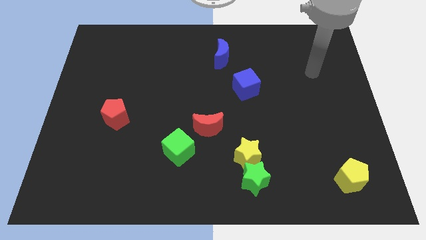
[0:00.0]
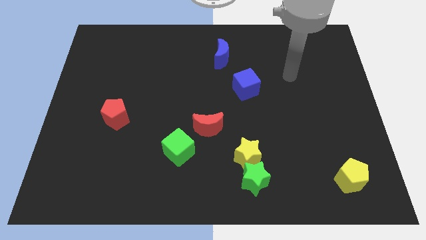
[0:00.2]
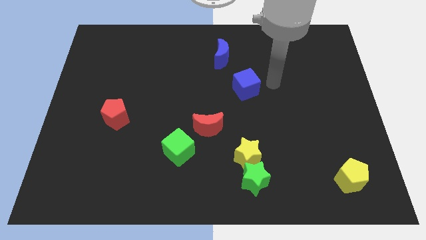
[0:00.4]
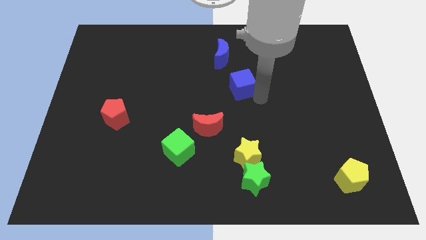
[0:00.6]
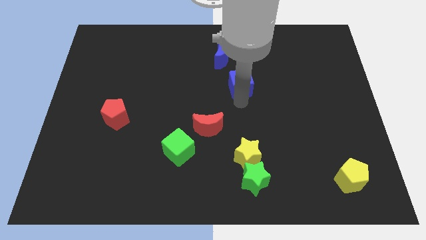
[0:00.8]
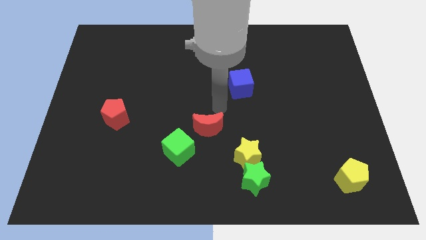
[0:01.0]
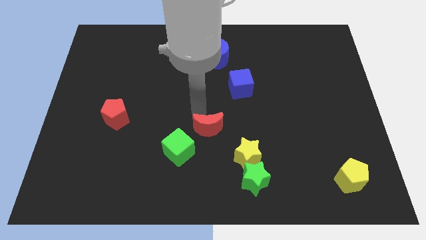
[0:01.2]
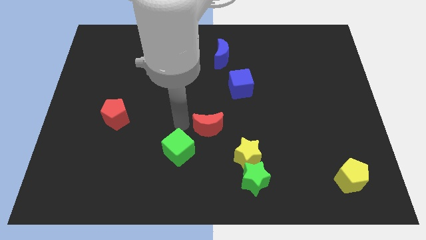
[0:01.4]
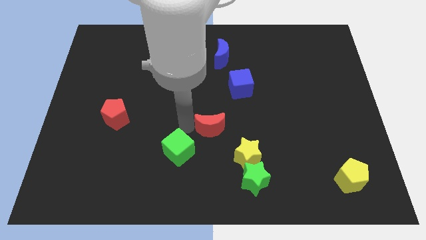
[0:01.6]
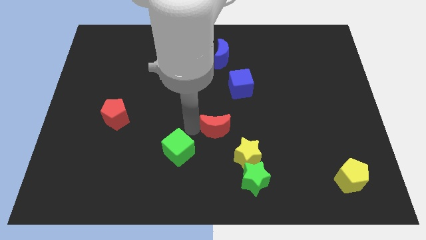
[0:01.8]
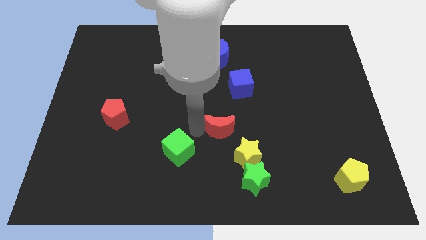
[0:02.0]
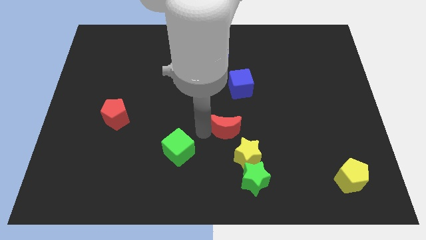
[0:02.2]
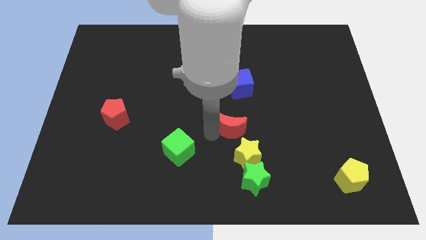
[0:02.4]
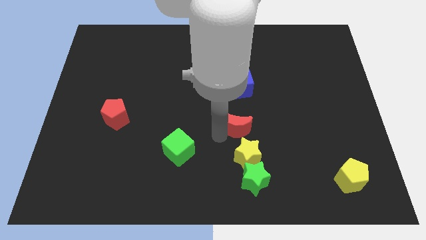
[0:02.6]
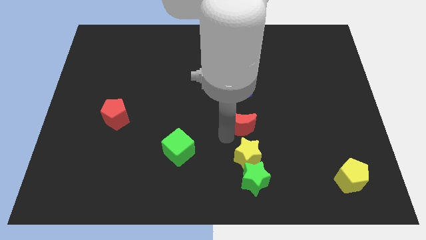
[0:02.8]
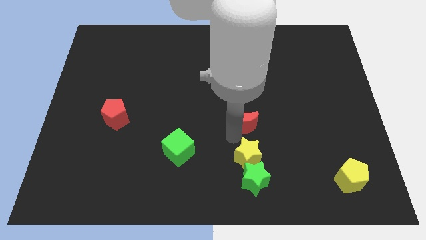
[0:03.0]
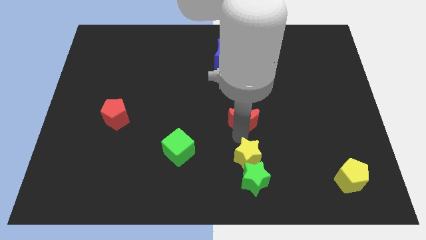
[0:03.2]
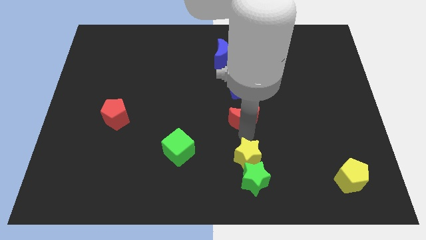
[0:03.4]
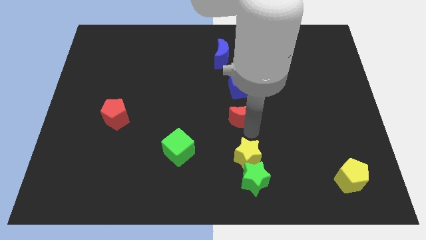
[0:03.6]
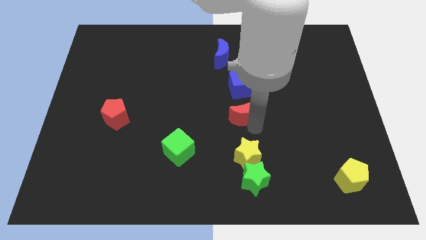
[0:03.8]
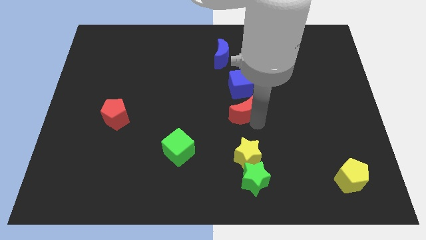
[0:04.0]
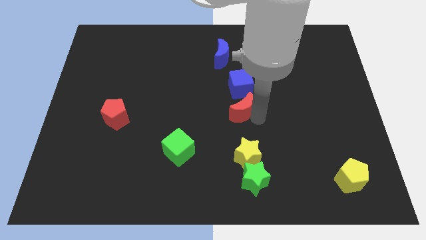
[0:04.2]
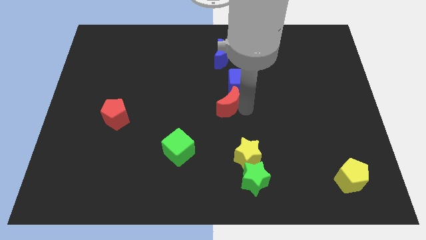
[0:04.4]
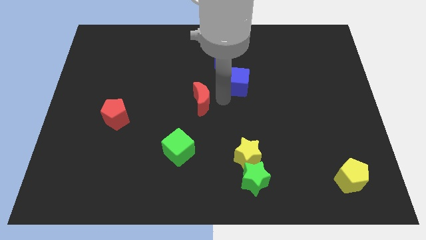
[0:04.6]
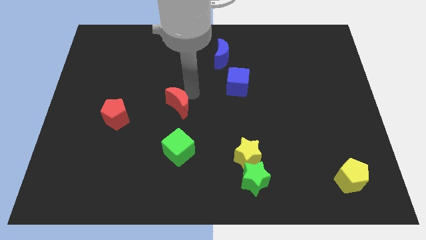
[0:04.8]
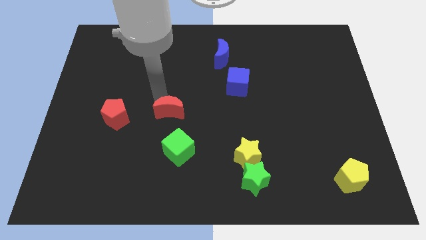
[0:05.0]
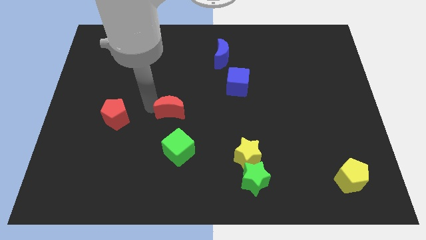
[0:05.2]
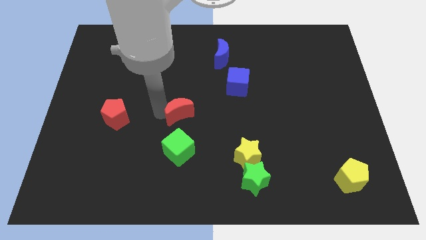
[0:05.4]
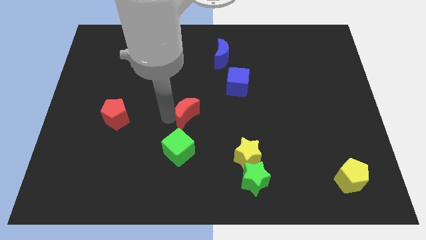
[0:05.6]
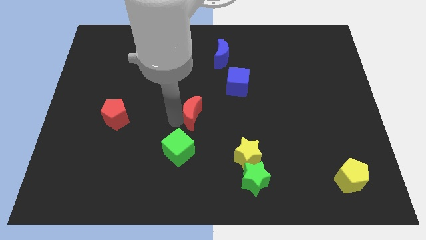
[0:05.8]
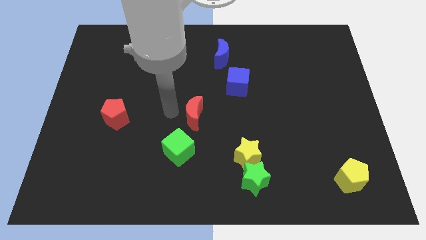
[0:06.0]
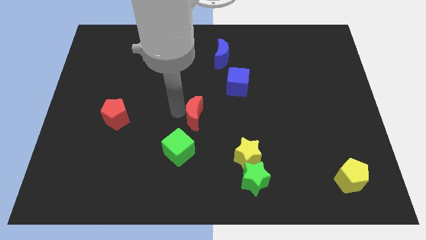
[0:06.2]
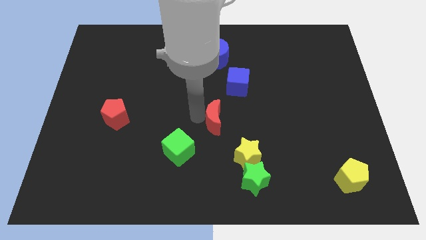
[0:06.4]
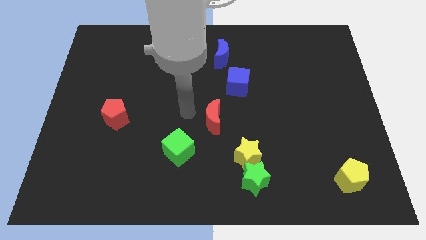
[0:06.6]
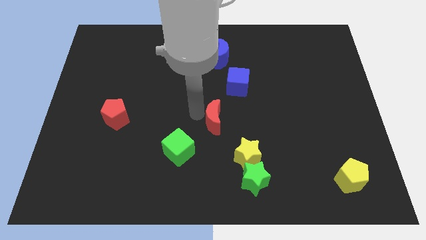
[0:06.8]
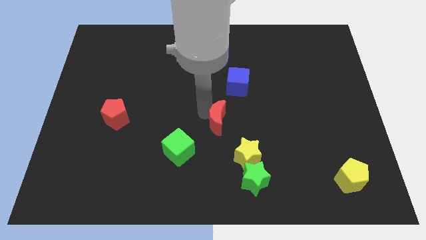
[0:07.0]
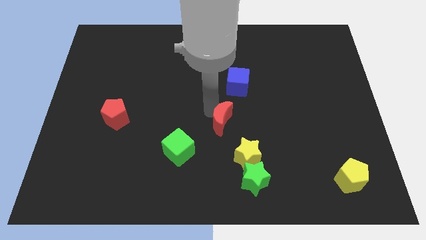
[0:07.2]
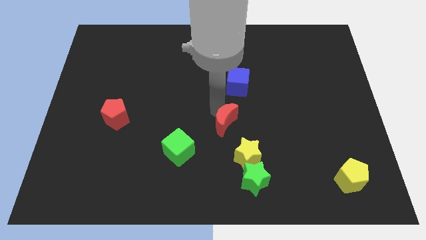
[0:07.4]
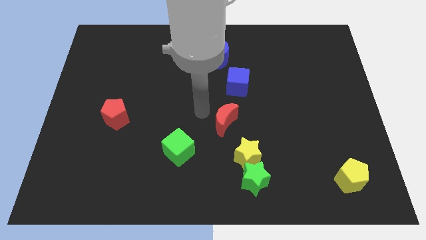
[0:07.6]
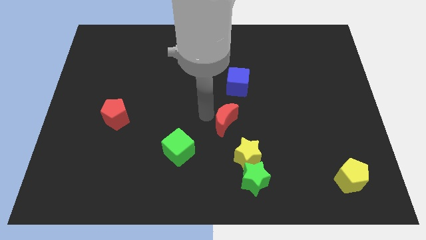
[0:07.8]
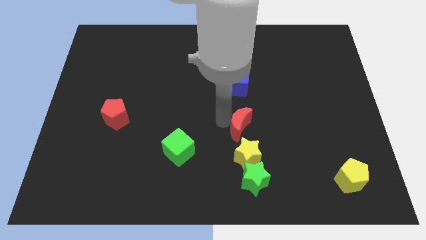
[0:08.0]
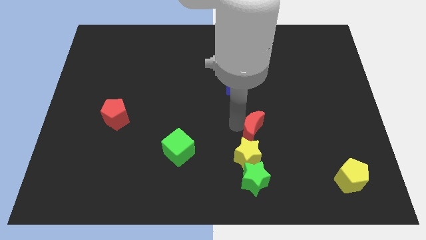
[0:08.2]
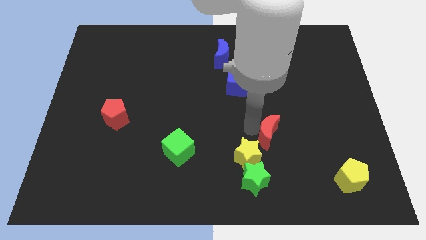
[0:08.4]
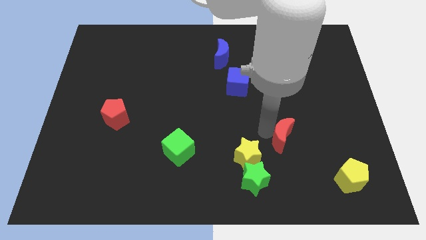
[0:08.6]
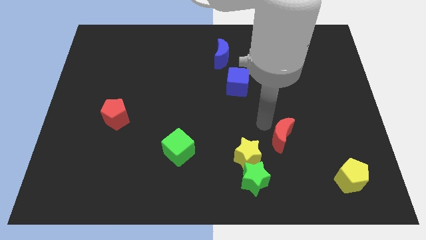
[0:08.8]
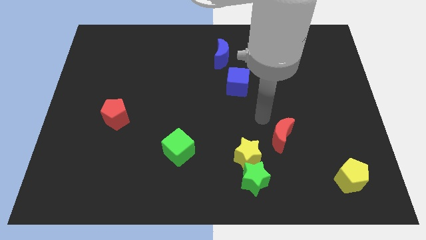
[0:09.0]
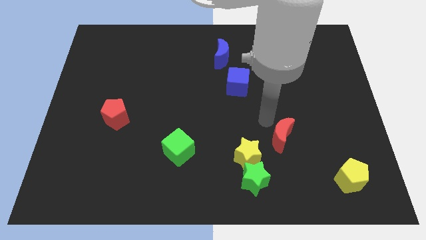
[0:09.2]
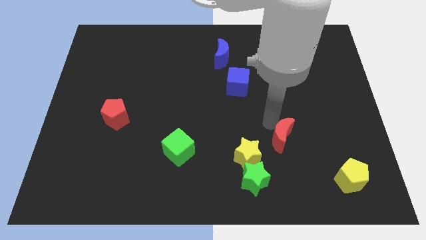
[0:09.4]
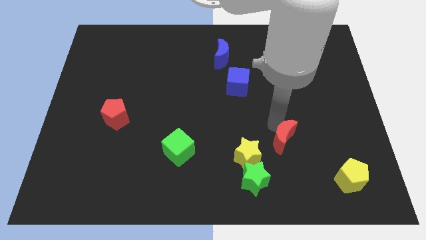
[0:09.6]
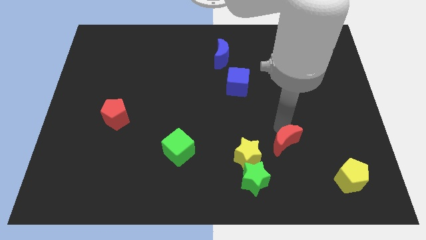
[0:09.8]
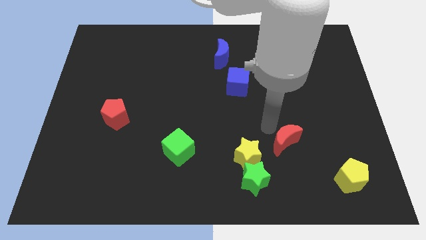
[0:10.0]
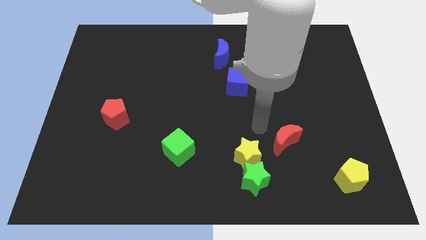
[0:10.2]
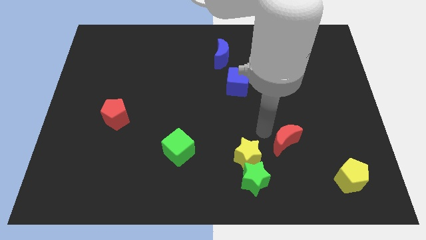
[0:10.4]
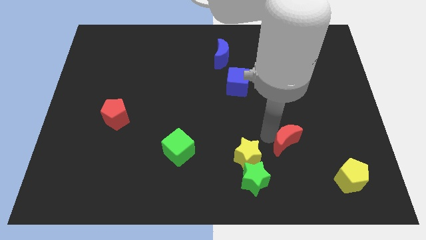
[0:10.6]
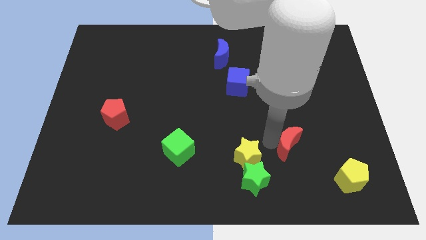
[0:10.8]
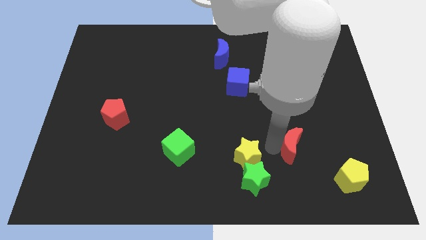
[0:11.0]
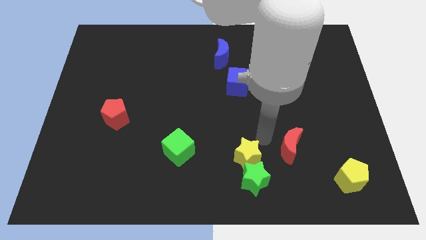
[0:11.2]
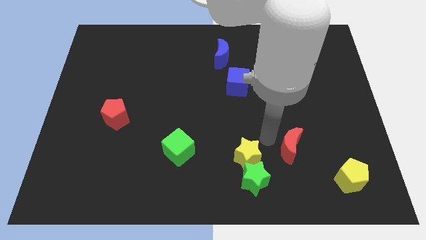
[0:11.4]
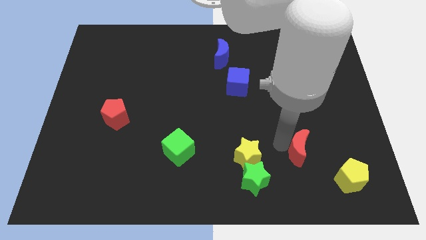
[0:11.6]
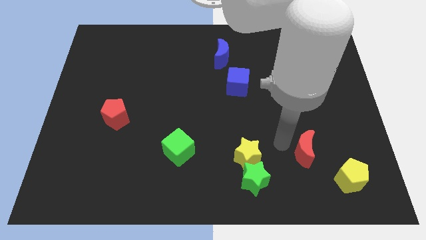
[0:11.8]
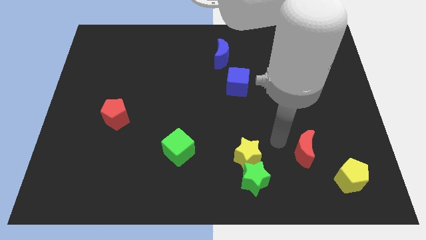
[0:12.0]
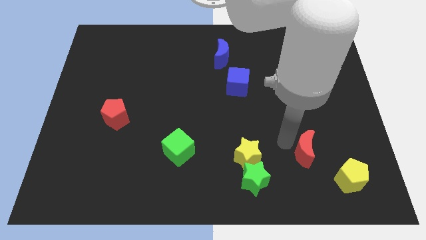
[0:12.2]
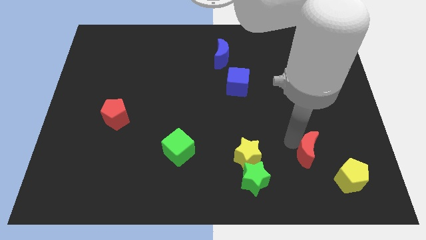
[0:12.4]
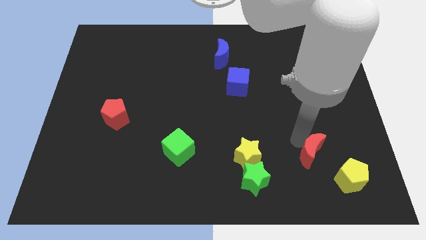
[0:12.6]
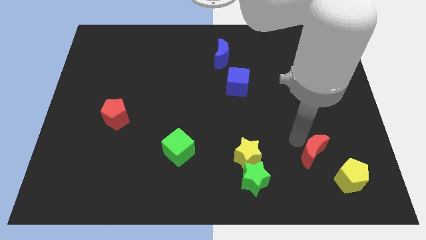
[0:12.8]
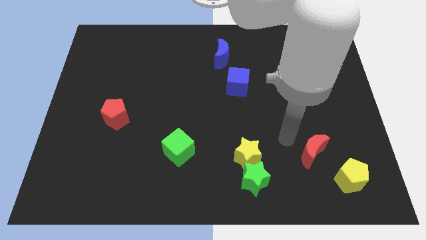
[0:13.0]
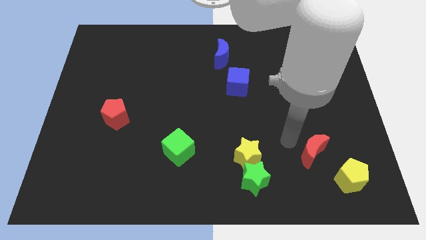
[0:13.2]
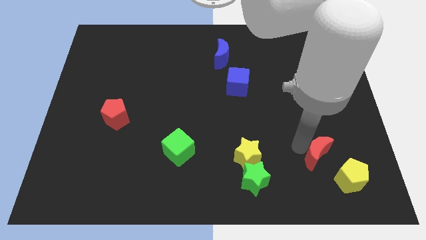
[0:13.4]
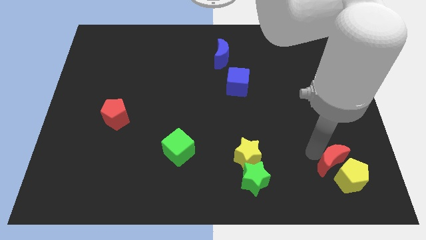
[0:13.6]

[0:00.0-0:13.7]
move the red moon towards the yellow pentagon

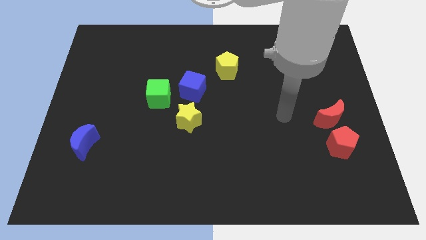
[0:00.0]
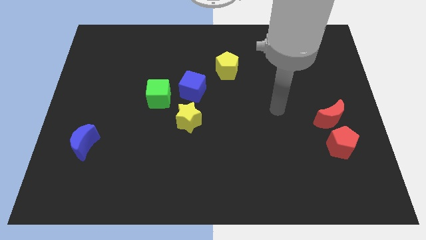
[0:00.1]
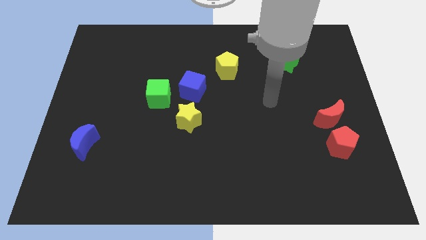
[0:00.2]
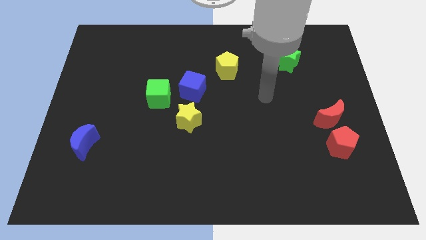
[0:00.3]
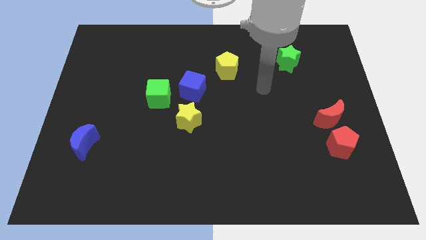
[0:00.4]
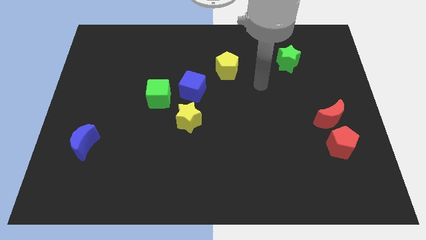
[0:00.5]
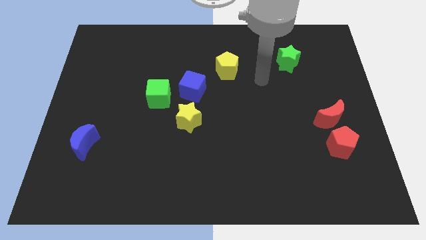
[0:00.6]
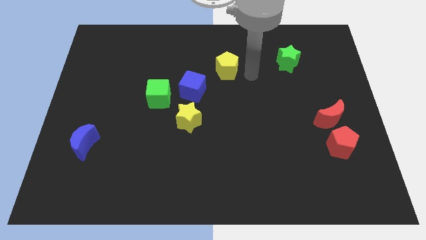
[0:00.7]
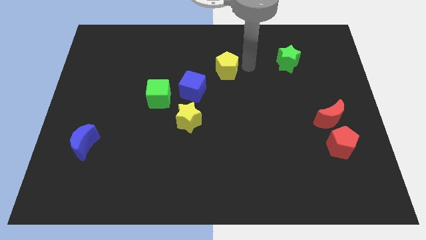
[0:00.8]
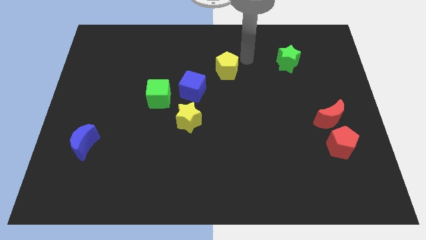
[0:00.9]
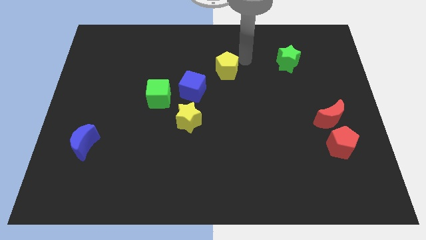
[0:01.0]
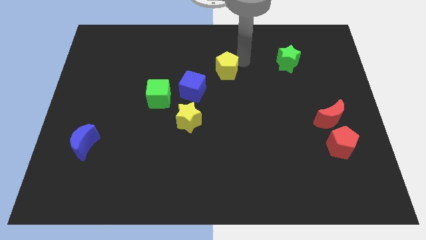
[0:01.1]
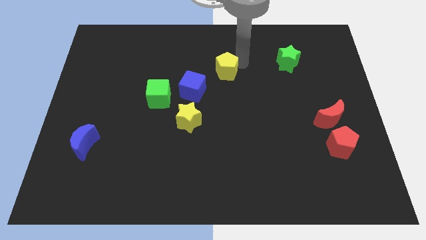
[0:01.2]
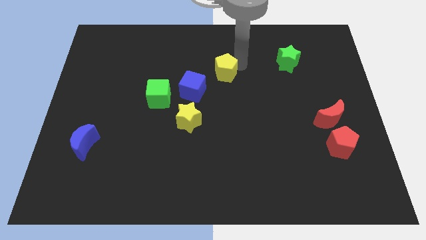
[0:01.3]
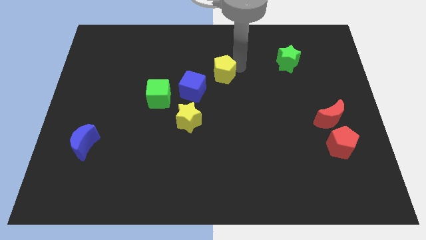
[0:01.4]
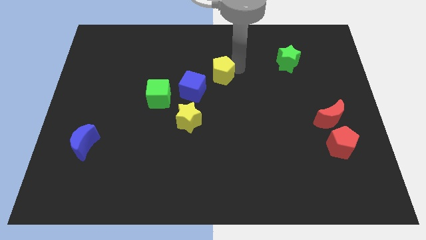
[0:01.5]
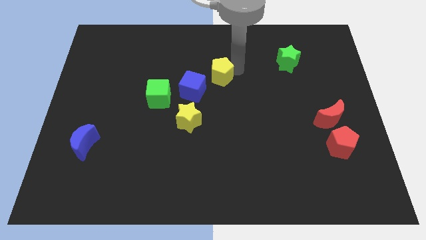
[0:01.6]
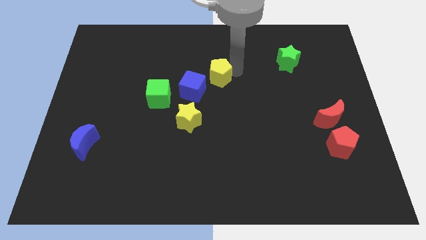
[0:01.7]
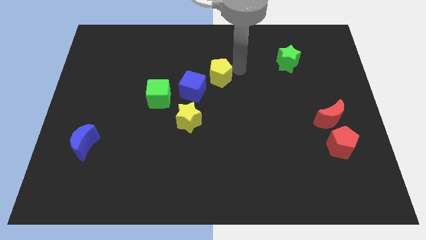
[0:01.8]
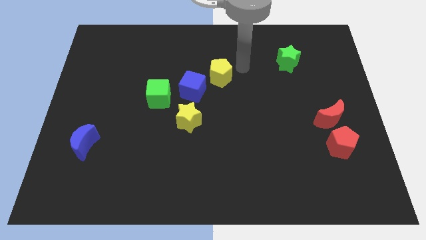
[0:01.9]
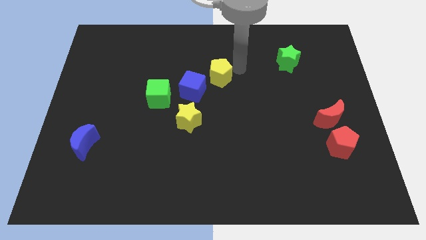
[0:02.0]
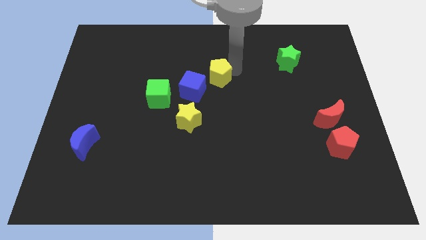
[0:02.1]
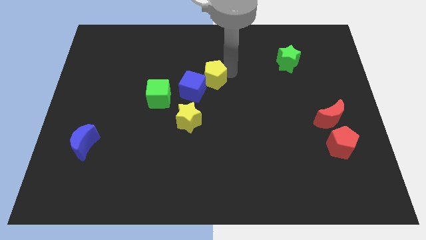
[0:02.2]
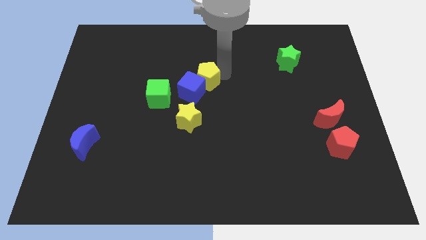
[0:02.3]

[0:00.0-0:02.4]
put the yellow pentagon towards the blue cube
